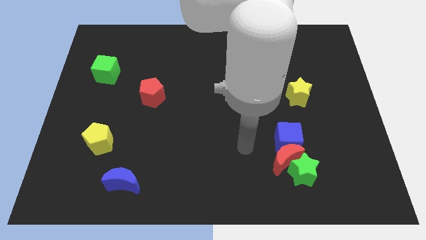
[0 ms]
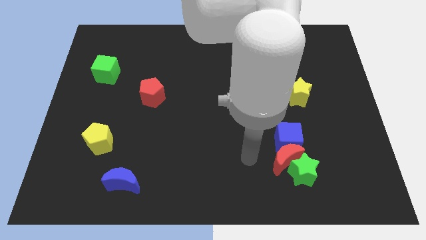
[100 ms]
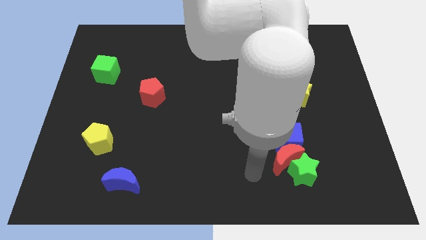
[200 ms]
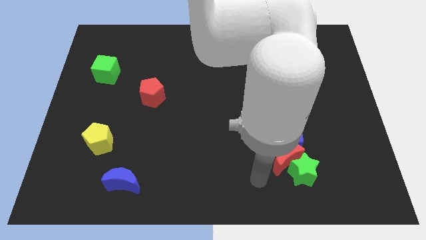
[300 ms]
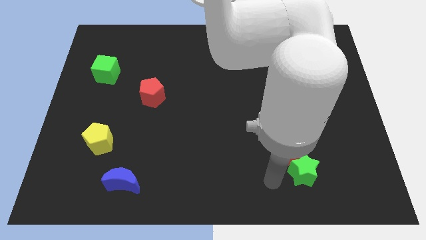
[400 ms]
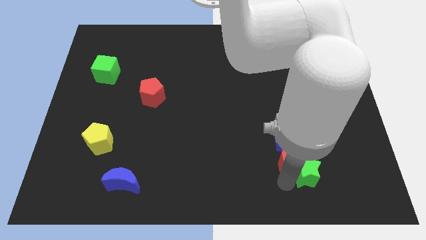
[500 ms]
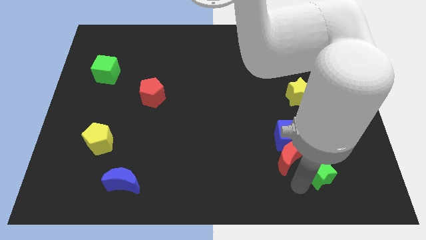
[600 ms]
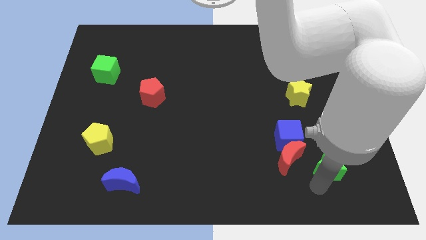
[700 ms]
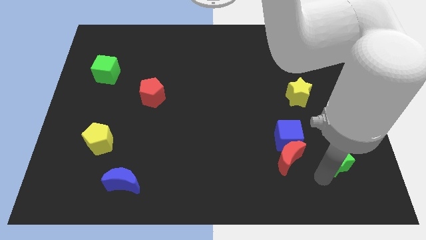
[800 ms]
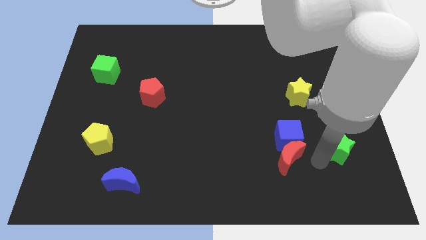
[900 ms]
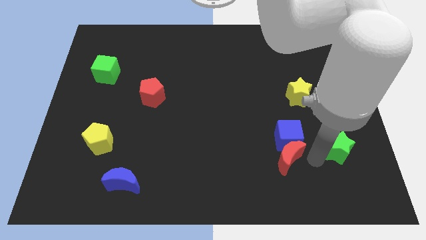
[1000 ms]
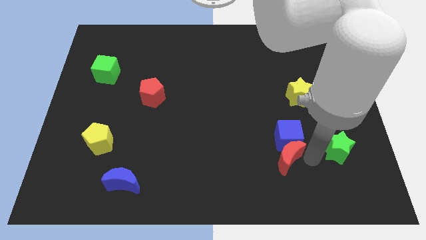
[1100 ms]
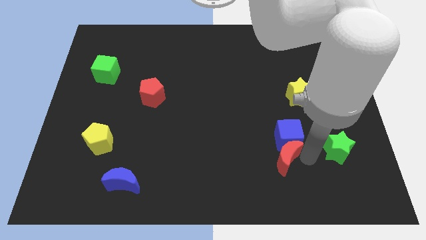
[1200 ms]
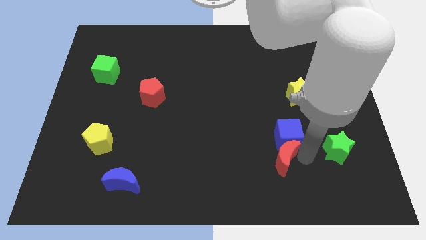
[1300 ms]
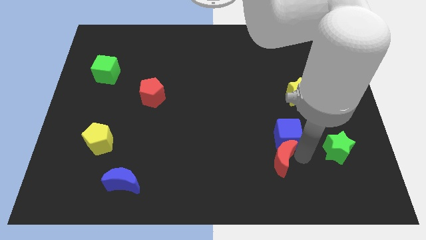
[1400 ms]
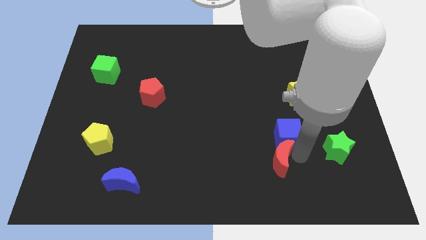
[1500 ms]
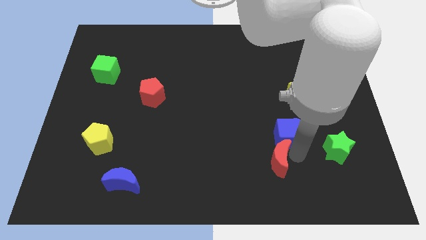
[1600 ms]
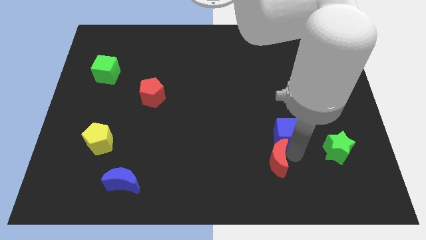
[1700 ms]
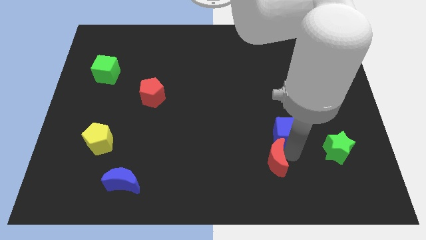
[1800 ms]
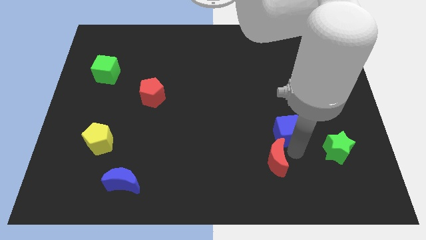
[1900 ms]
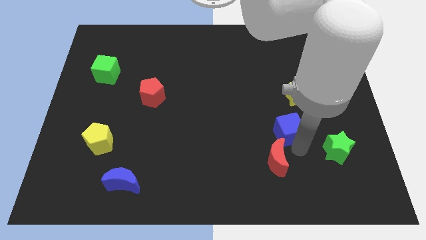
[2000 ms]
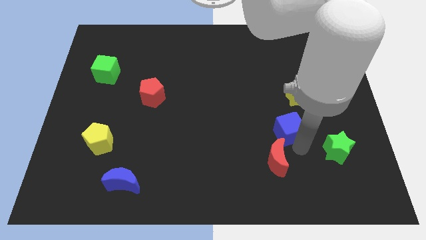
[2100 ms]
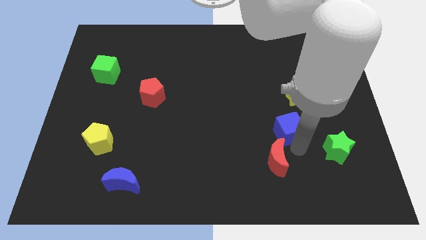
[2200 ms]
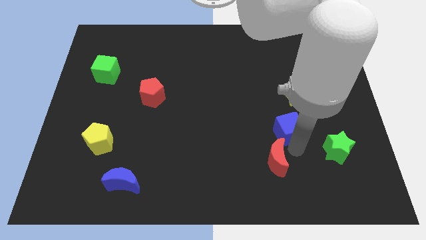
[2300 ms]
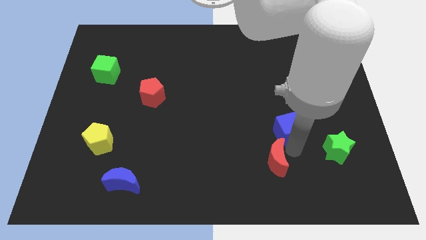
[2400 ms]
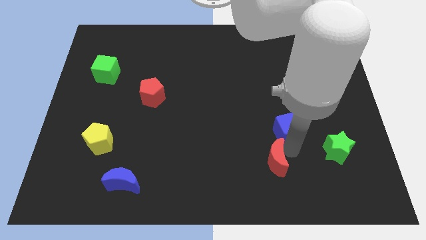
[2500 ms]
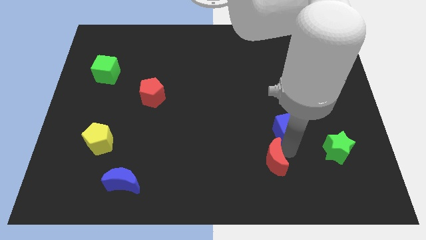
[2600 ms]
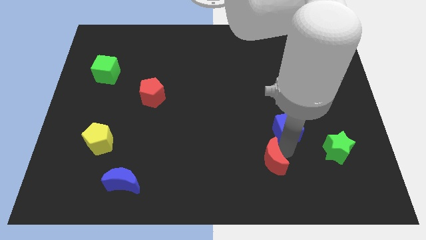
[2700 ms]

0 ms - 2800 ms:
move the red moon away from the green star and blue cube

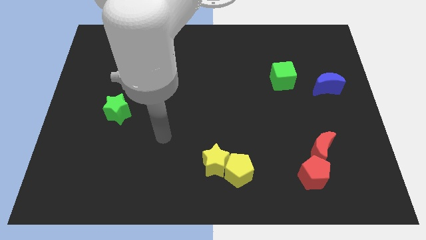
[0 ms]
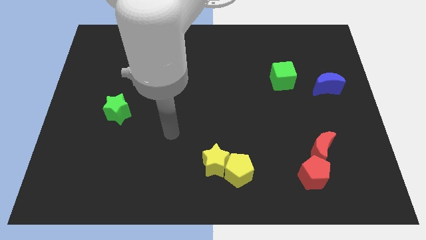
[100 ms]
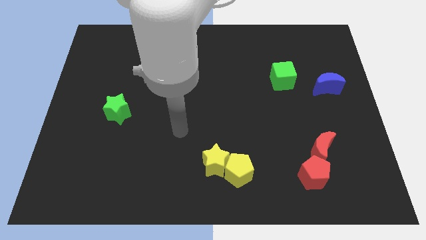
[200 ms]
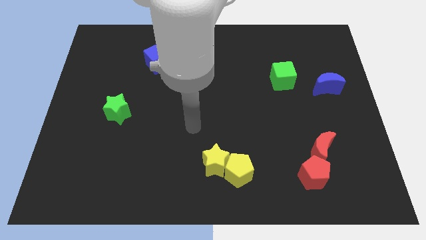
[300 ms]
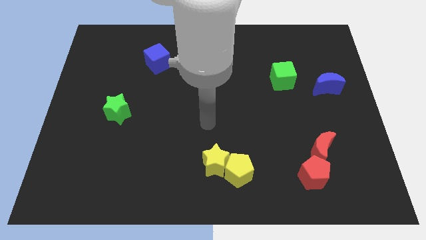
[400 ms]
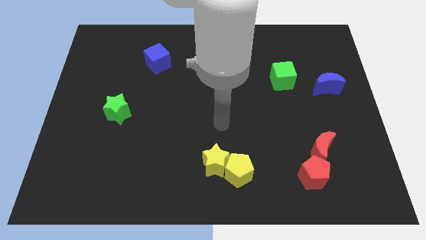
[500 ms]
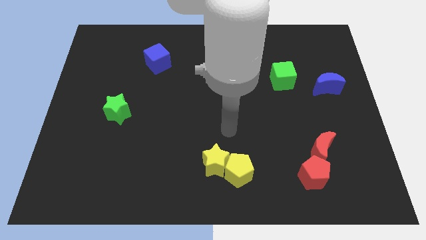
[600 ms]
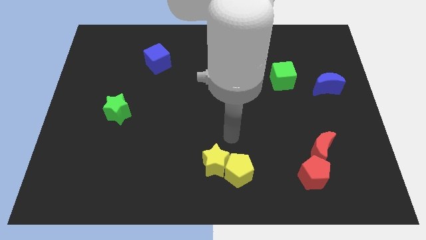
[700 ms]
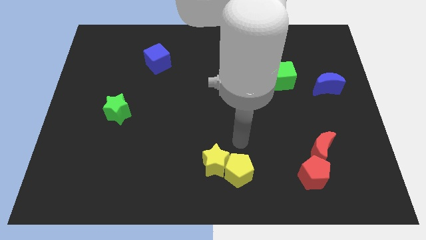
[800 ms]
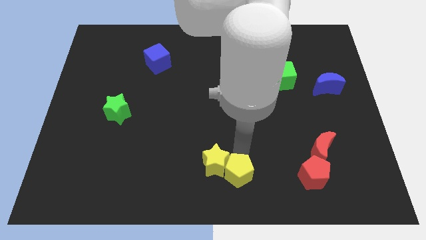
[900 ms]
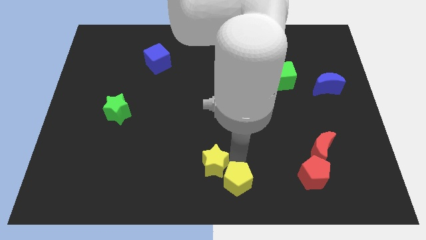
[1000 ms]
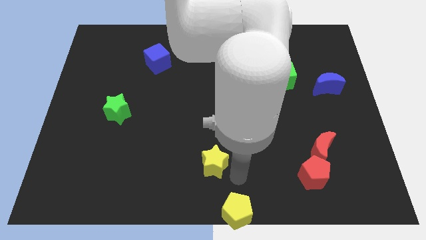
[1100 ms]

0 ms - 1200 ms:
move the yellow star away from the yellow pentagon

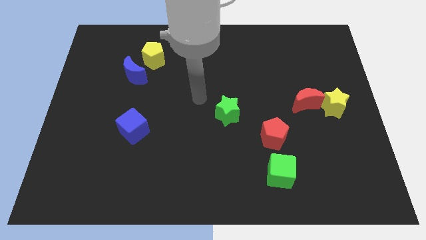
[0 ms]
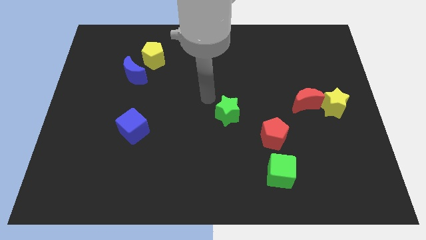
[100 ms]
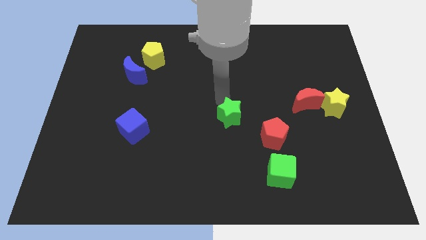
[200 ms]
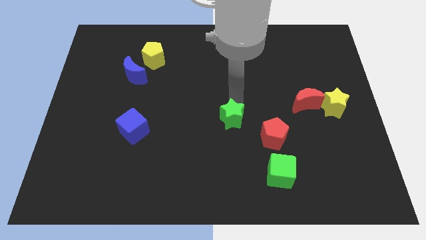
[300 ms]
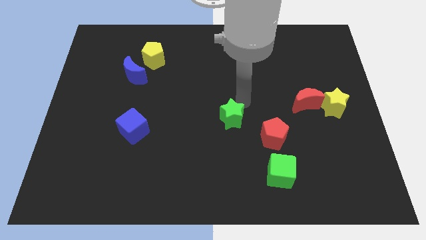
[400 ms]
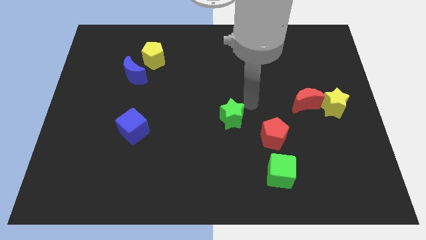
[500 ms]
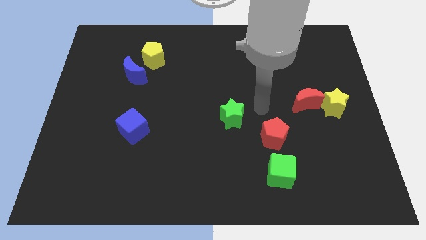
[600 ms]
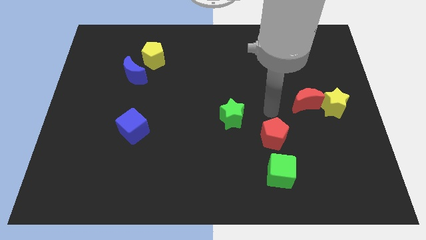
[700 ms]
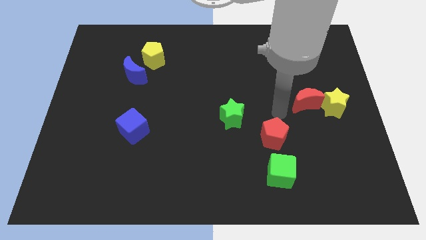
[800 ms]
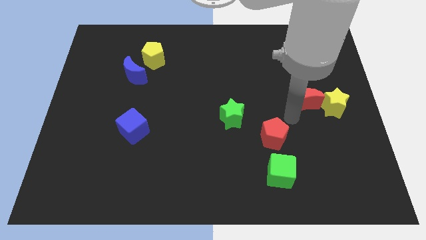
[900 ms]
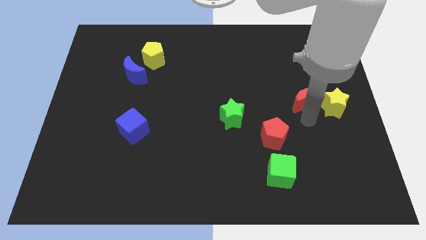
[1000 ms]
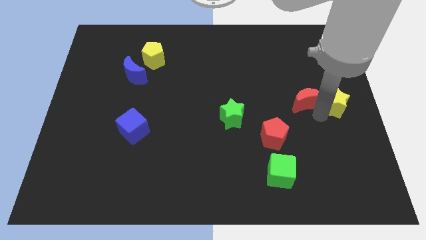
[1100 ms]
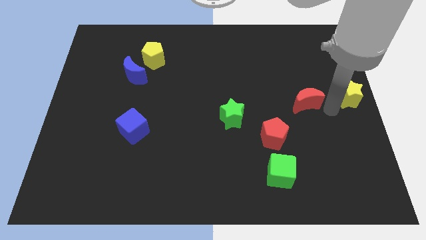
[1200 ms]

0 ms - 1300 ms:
move the red moon away from the yellow star

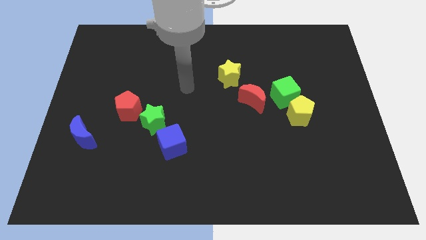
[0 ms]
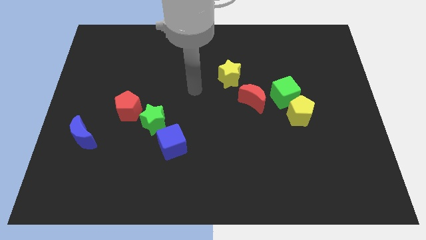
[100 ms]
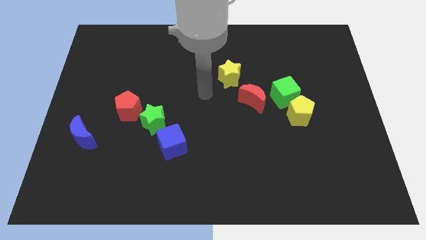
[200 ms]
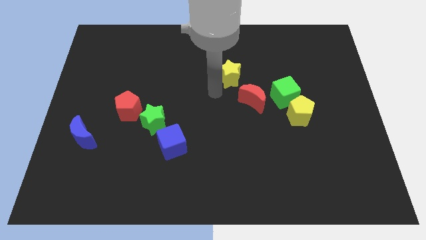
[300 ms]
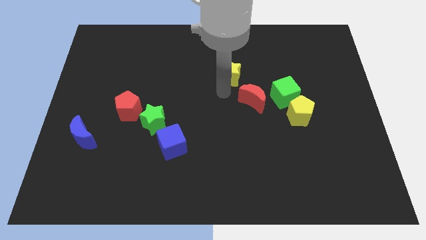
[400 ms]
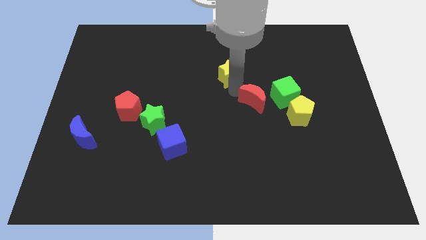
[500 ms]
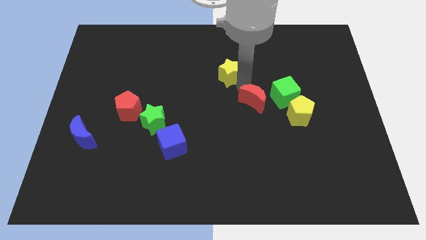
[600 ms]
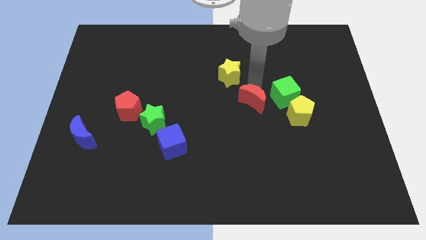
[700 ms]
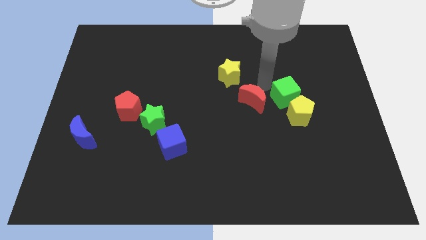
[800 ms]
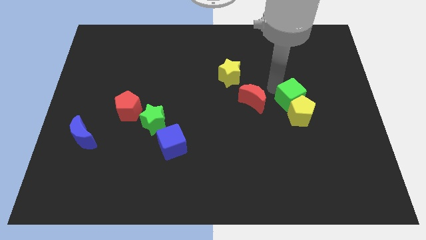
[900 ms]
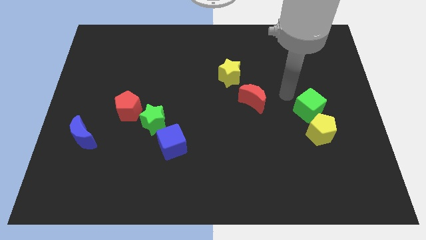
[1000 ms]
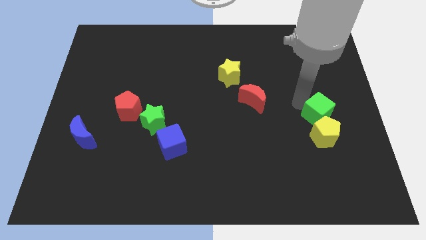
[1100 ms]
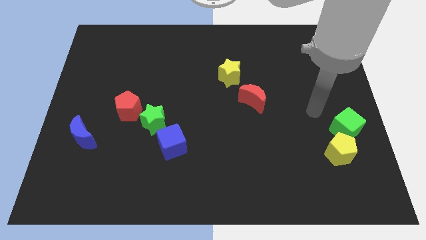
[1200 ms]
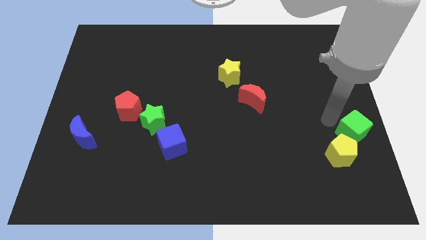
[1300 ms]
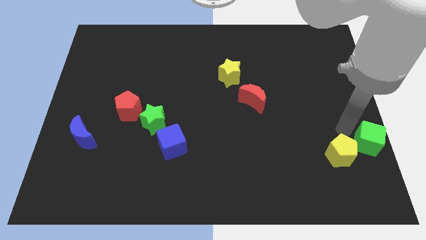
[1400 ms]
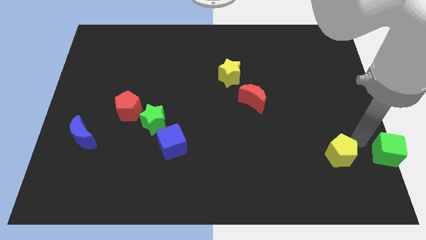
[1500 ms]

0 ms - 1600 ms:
separate the yellow pentagon from the green cube

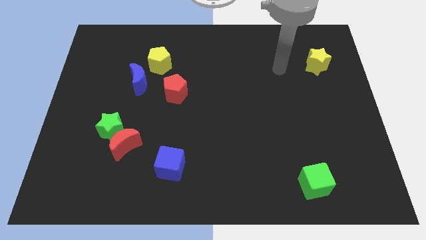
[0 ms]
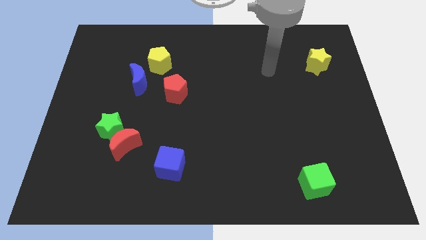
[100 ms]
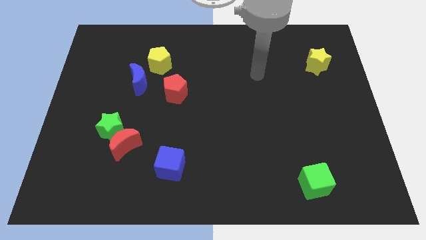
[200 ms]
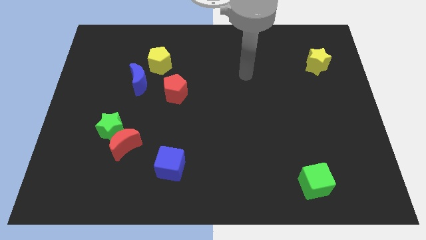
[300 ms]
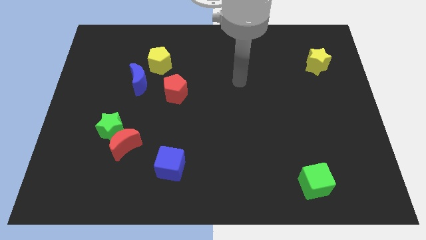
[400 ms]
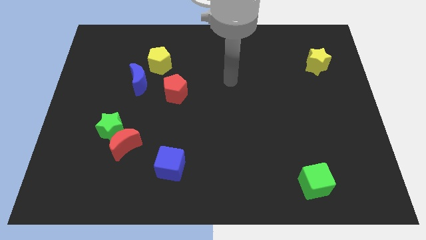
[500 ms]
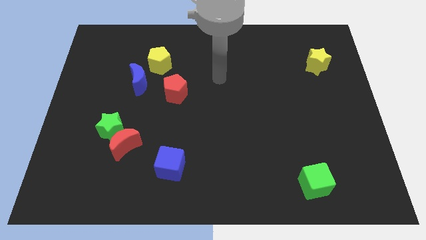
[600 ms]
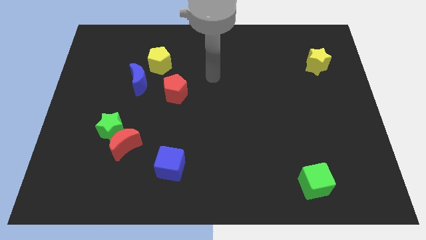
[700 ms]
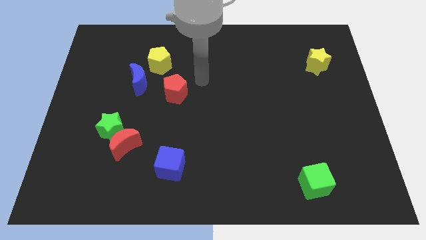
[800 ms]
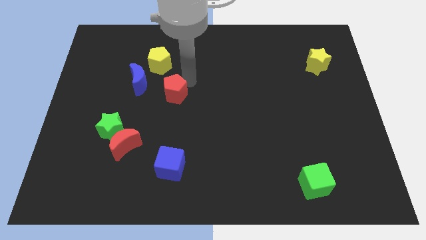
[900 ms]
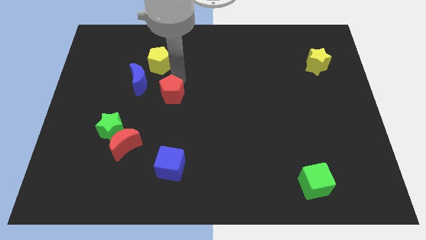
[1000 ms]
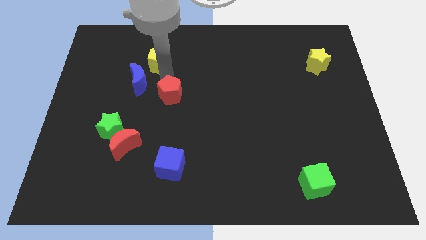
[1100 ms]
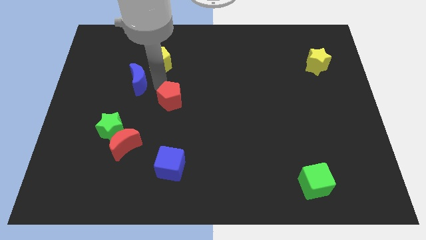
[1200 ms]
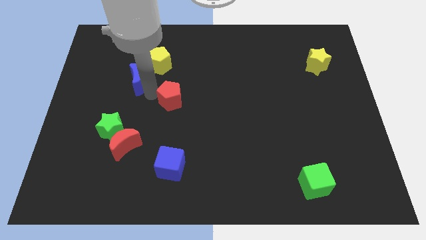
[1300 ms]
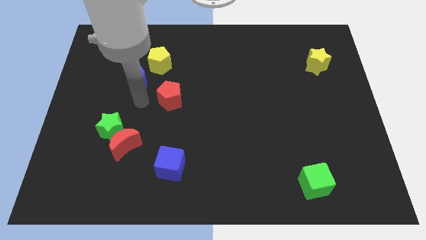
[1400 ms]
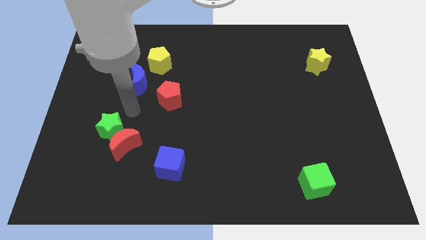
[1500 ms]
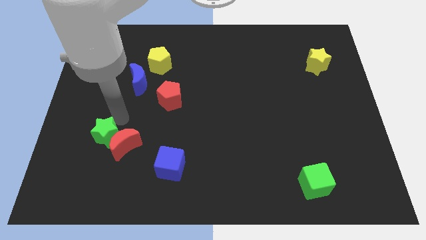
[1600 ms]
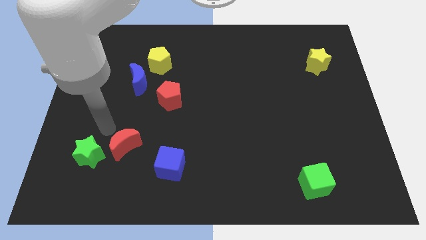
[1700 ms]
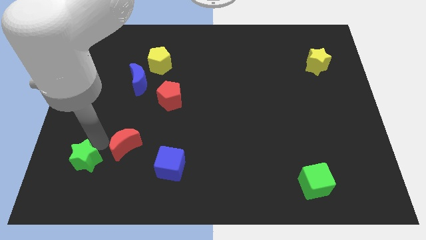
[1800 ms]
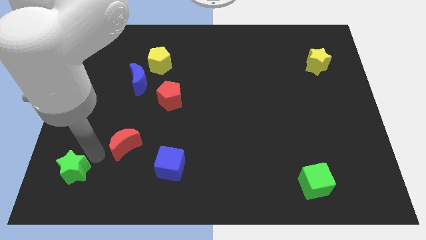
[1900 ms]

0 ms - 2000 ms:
pull the red moon apart from the green star

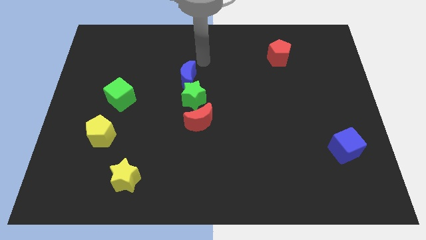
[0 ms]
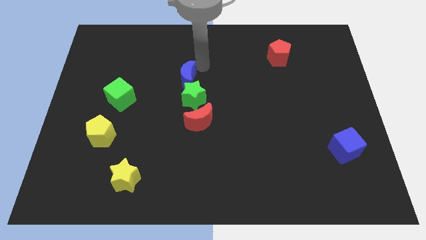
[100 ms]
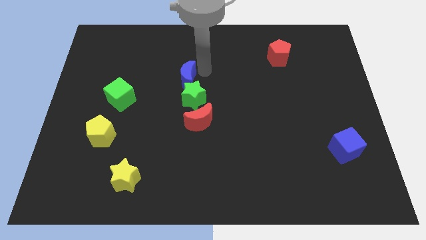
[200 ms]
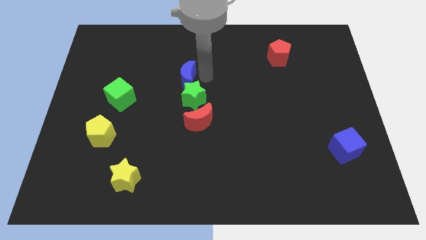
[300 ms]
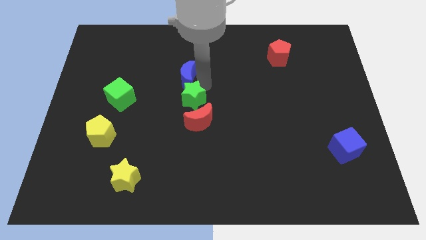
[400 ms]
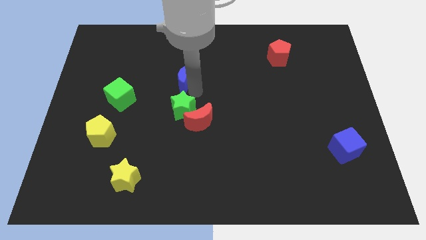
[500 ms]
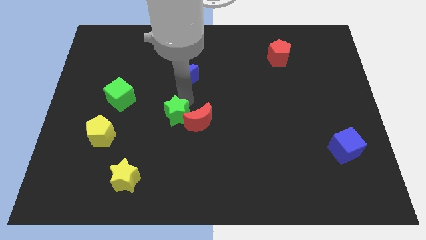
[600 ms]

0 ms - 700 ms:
separate the blue moon from the green star
